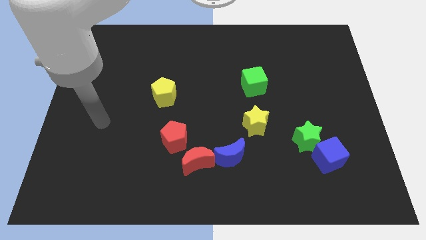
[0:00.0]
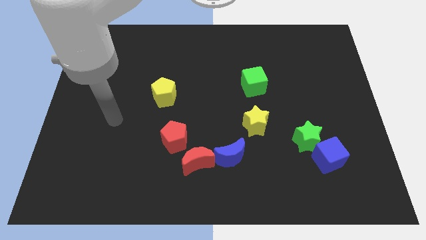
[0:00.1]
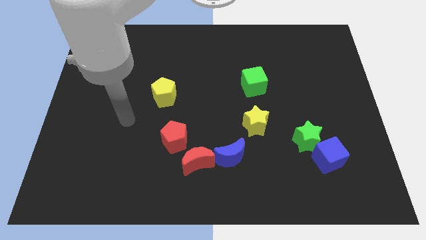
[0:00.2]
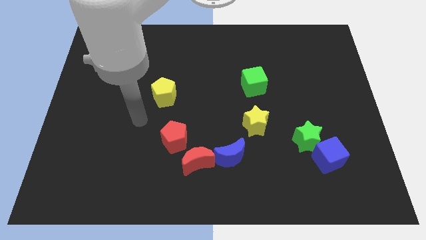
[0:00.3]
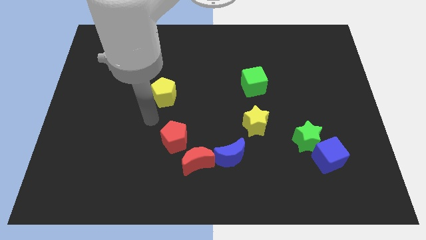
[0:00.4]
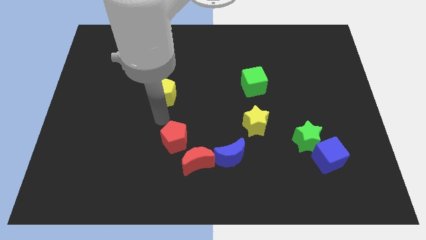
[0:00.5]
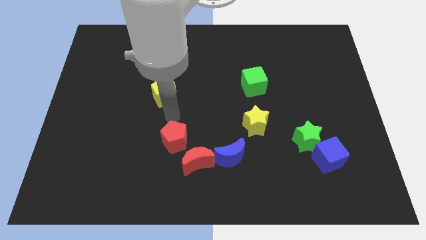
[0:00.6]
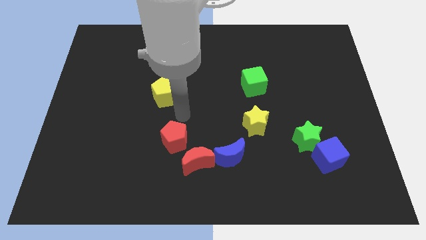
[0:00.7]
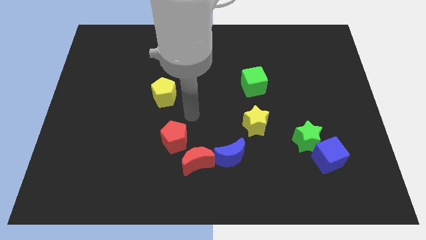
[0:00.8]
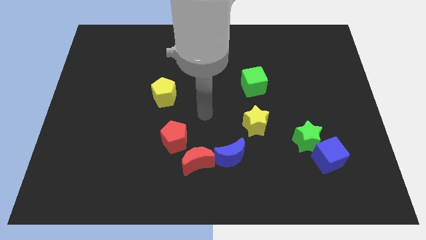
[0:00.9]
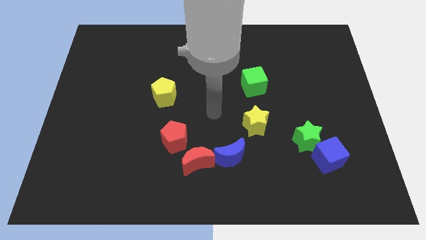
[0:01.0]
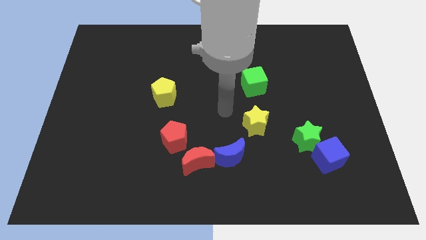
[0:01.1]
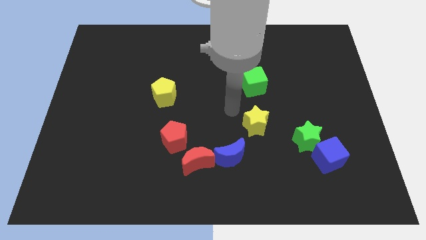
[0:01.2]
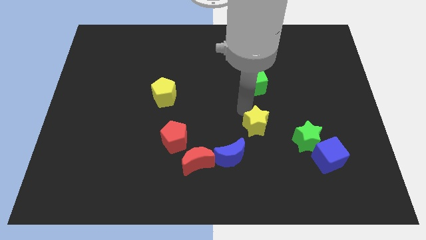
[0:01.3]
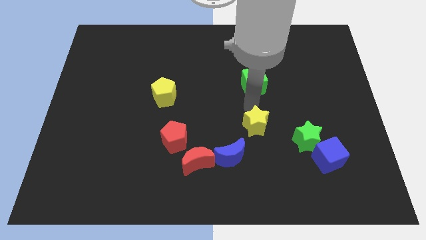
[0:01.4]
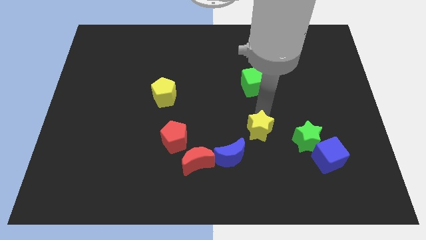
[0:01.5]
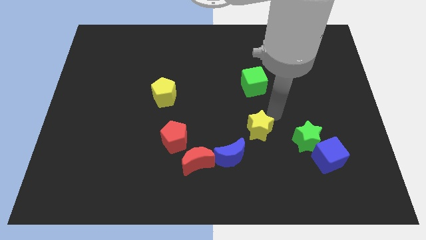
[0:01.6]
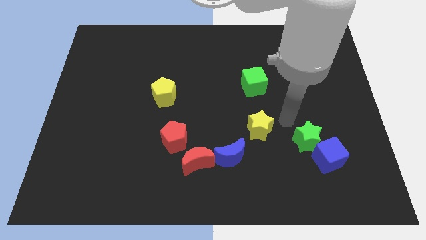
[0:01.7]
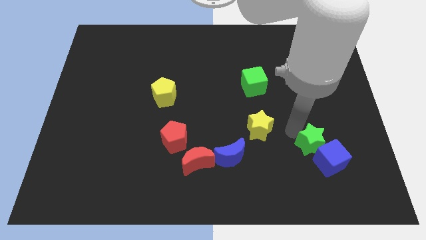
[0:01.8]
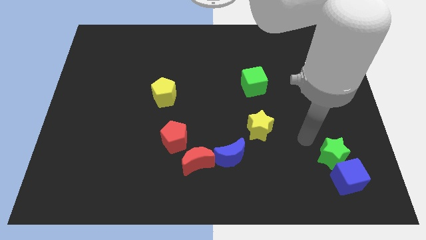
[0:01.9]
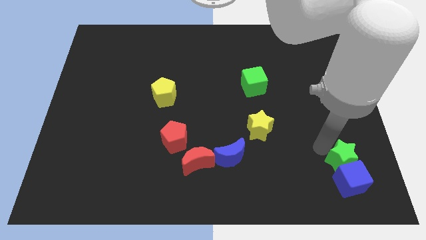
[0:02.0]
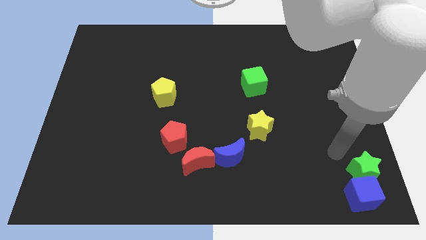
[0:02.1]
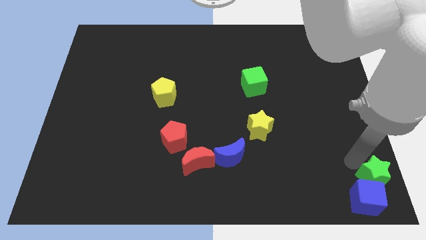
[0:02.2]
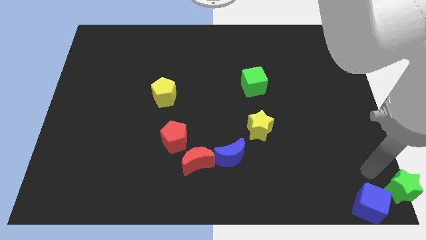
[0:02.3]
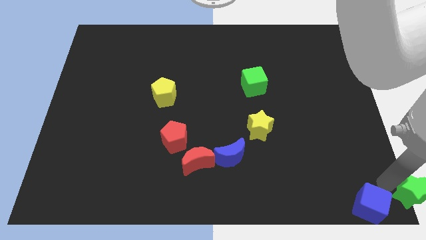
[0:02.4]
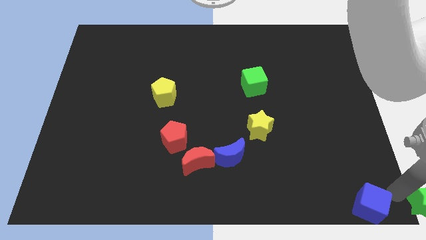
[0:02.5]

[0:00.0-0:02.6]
separate the blue cube from the green star

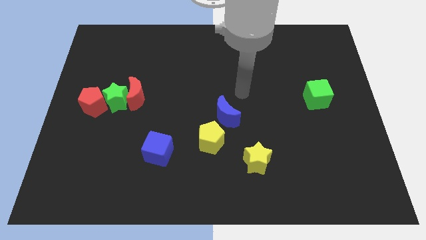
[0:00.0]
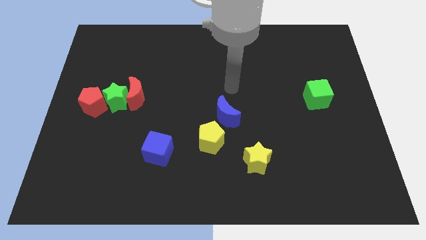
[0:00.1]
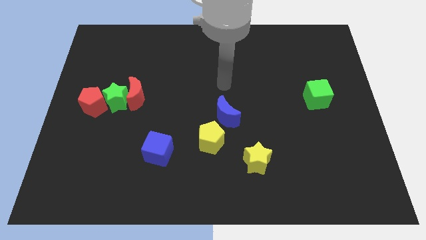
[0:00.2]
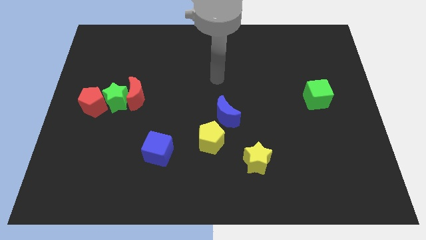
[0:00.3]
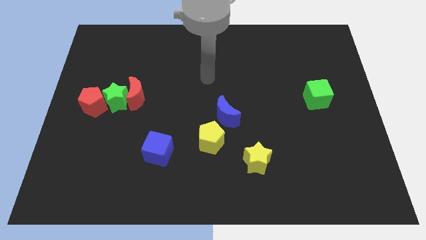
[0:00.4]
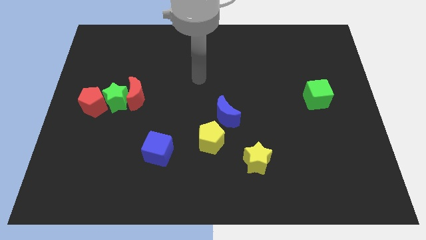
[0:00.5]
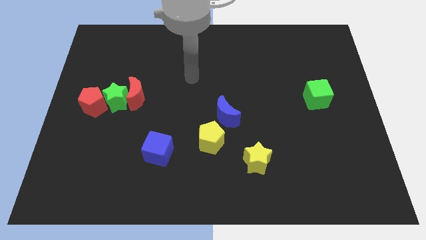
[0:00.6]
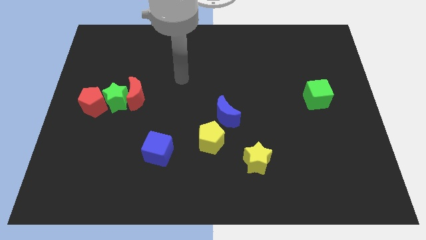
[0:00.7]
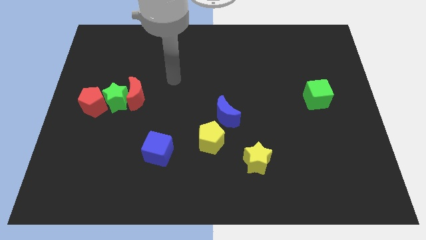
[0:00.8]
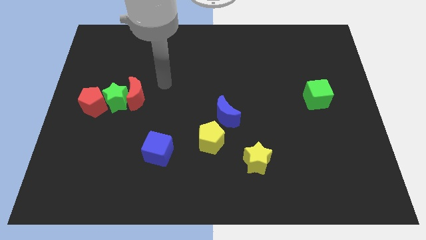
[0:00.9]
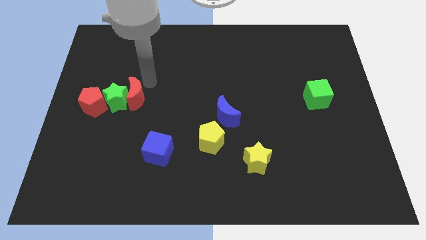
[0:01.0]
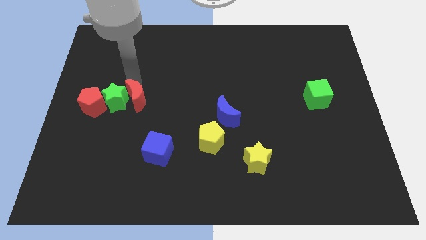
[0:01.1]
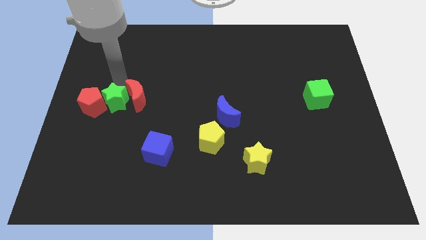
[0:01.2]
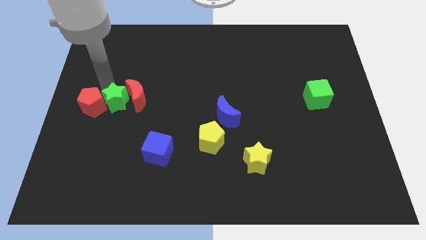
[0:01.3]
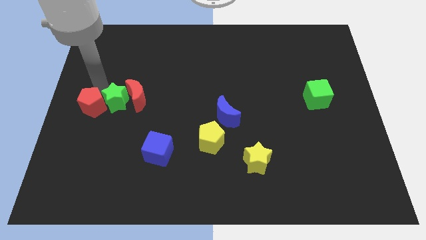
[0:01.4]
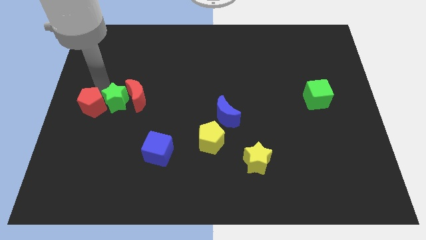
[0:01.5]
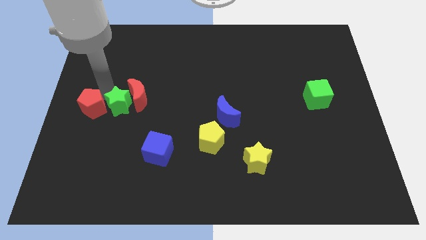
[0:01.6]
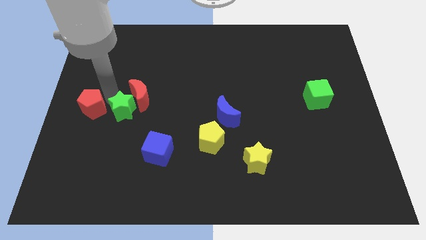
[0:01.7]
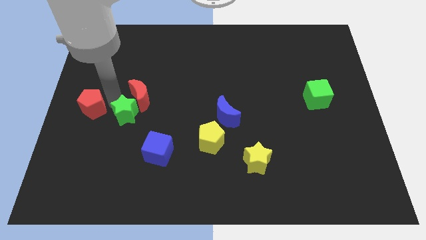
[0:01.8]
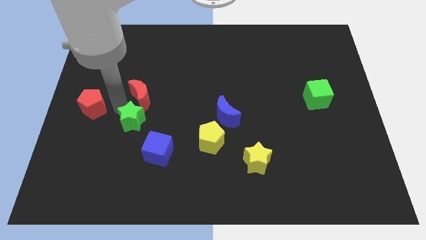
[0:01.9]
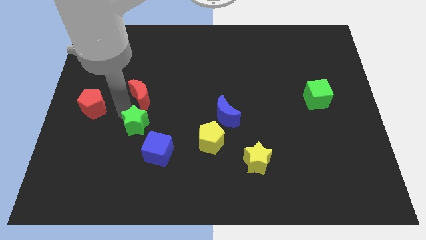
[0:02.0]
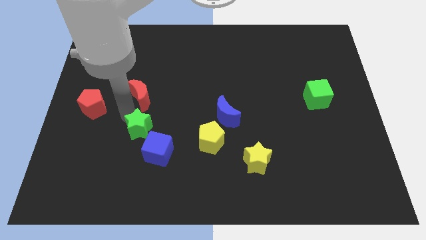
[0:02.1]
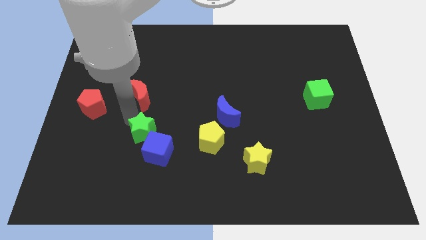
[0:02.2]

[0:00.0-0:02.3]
pull the green star apart from the red moon and red pentagon

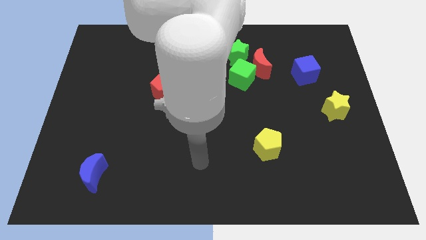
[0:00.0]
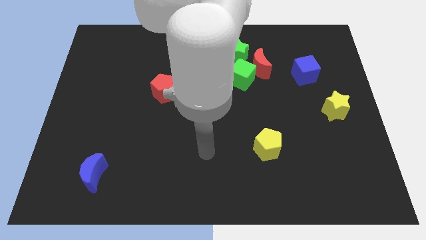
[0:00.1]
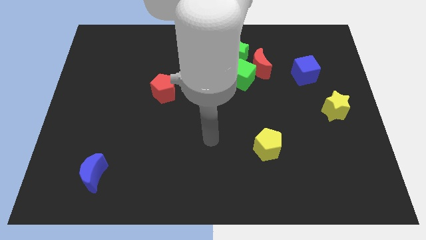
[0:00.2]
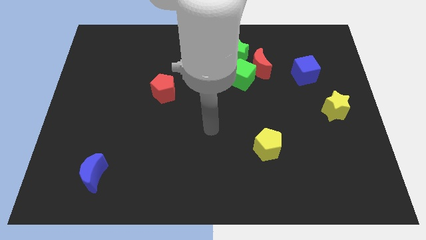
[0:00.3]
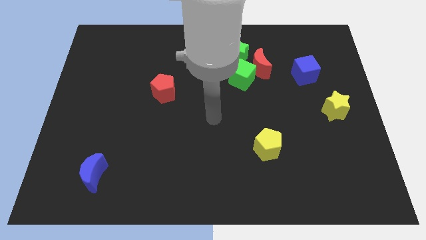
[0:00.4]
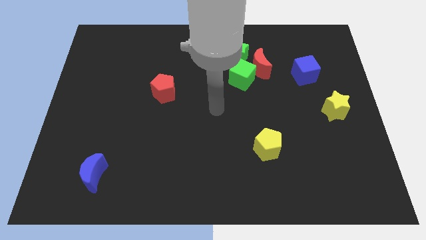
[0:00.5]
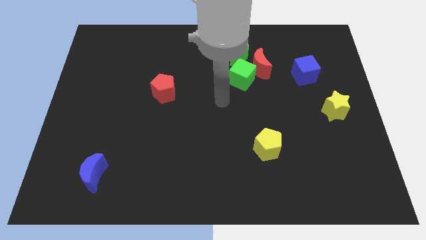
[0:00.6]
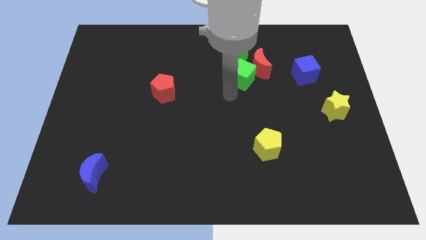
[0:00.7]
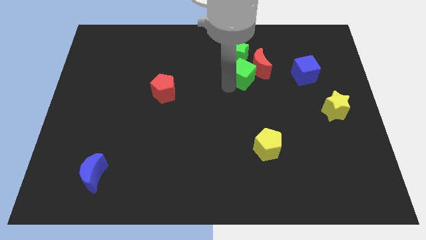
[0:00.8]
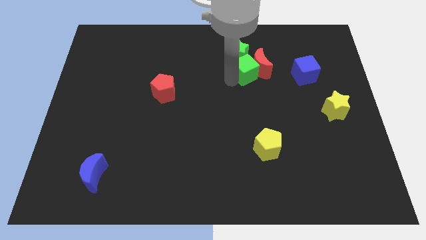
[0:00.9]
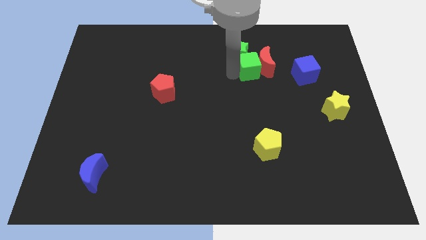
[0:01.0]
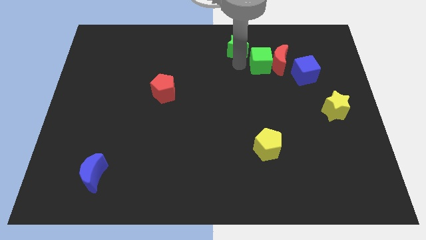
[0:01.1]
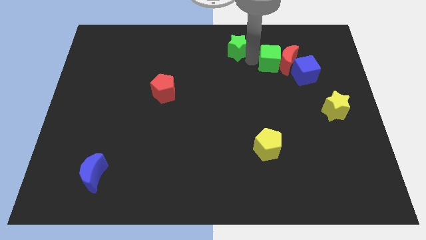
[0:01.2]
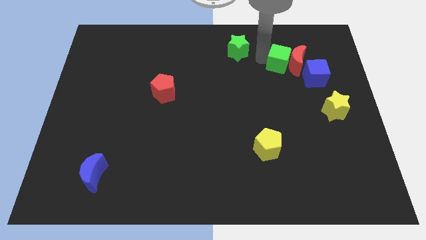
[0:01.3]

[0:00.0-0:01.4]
move the red moon away from the green cube and green star

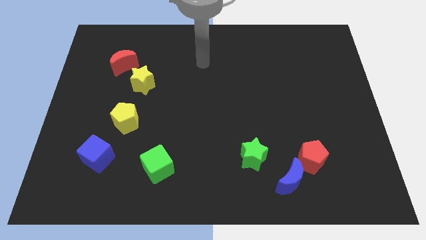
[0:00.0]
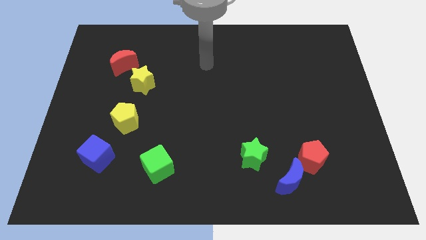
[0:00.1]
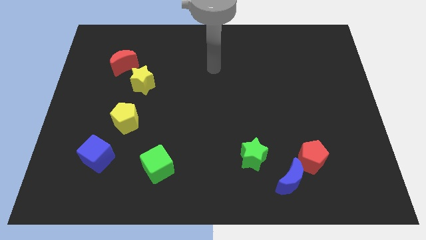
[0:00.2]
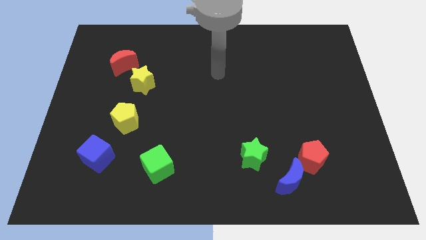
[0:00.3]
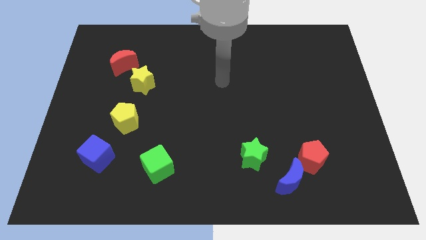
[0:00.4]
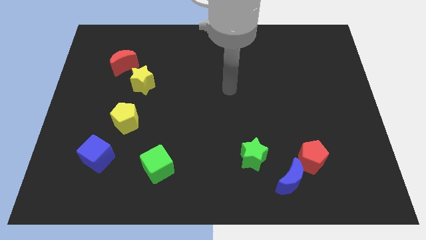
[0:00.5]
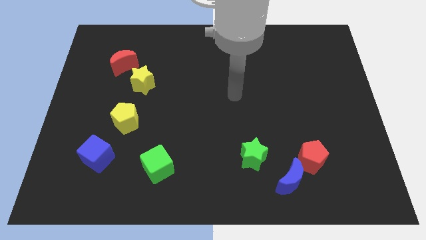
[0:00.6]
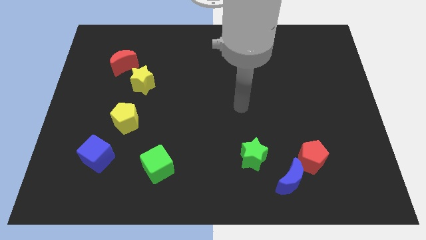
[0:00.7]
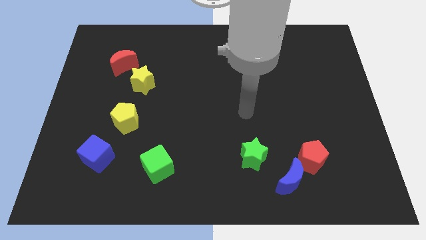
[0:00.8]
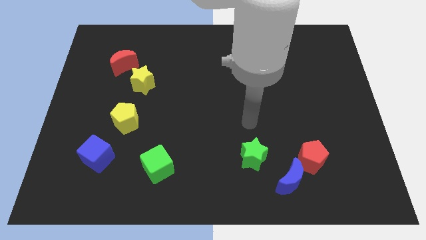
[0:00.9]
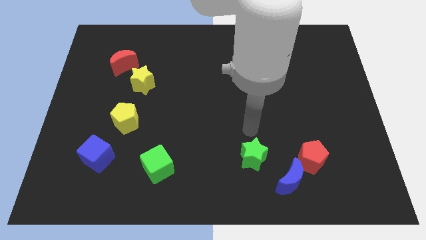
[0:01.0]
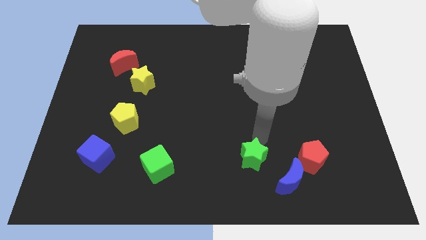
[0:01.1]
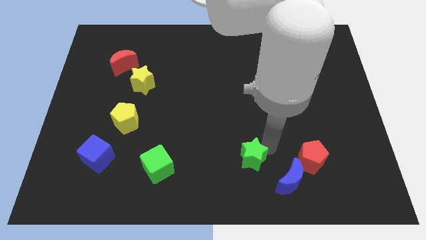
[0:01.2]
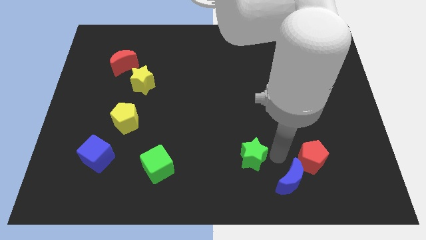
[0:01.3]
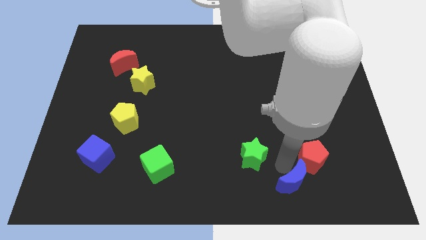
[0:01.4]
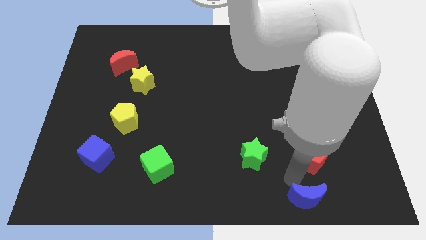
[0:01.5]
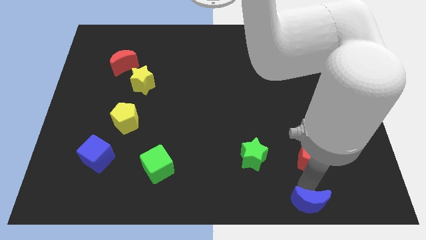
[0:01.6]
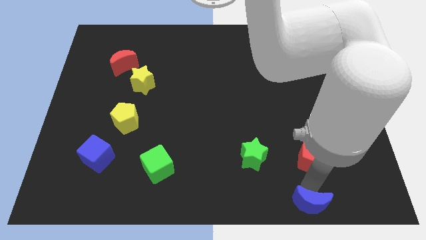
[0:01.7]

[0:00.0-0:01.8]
separate the red pentagon from the blue moon

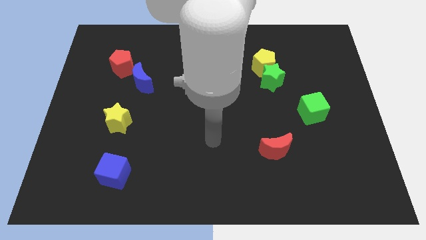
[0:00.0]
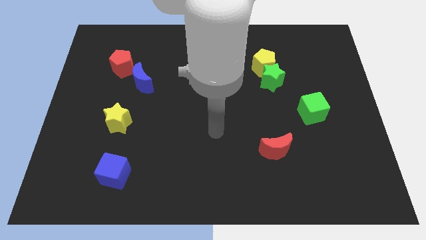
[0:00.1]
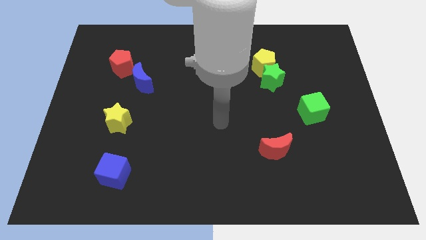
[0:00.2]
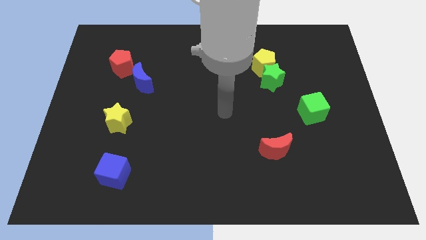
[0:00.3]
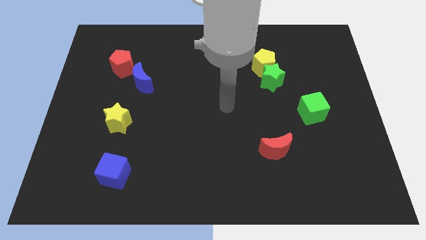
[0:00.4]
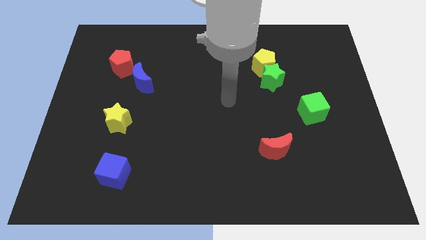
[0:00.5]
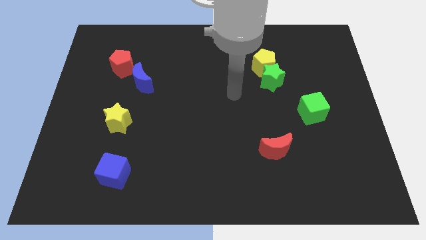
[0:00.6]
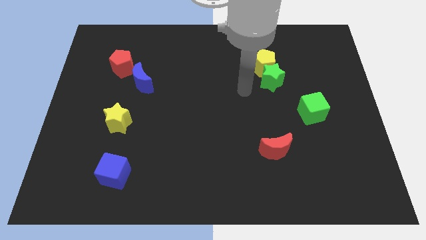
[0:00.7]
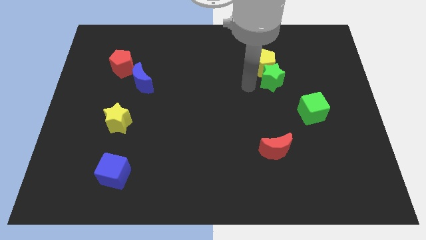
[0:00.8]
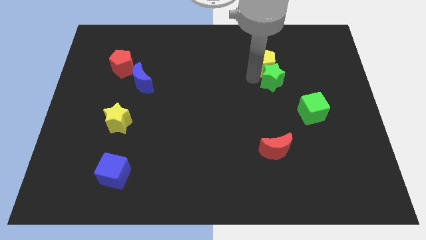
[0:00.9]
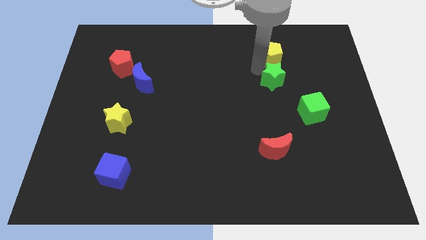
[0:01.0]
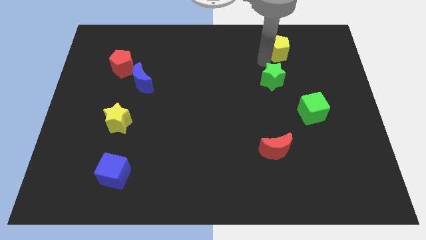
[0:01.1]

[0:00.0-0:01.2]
pull the green star apart from the yellow pentagon
